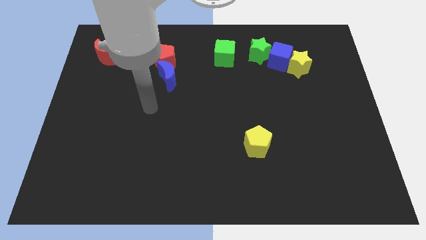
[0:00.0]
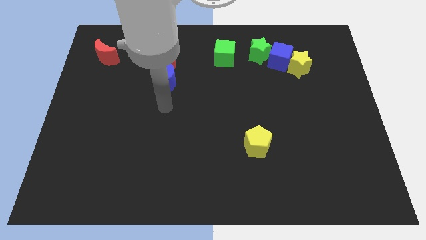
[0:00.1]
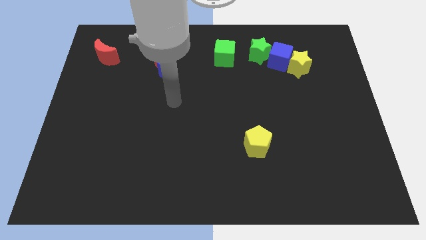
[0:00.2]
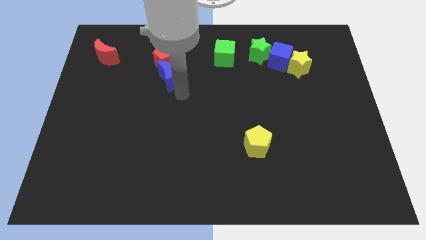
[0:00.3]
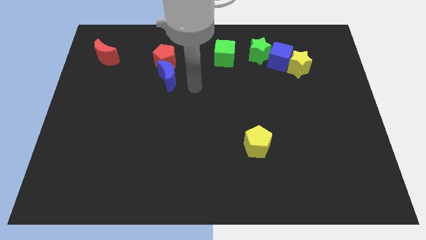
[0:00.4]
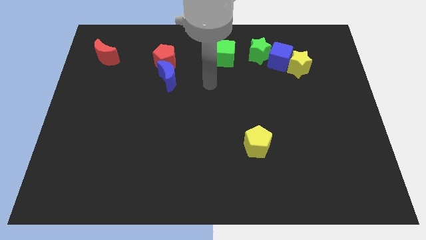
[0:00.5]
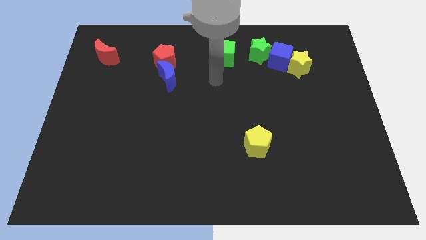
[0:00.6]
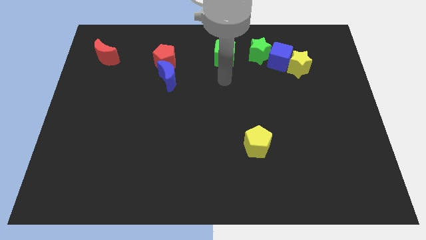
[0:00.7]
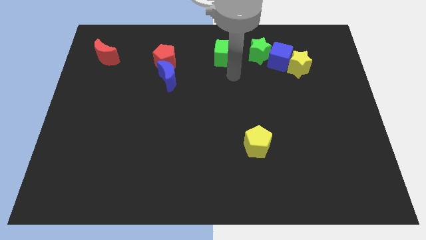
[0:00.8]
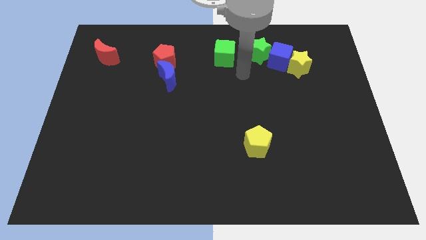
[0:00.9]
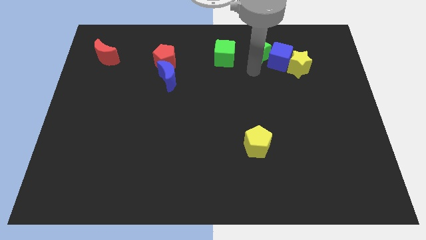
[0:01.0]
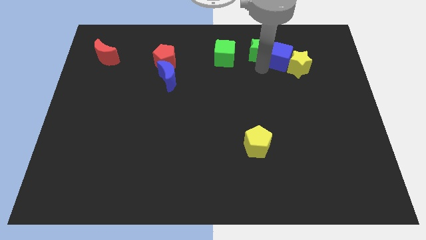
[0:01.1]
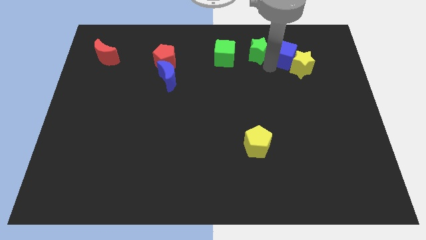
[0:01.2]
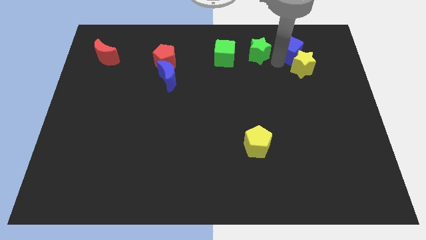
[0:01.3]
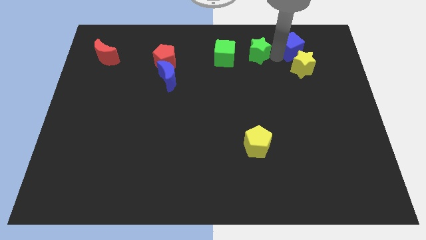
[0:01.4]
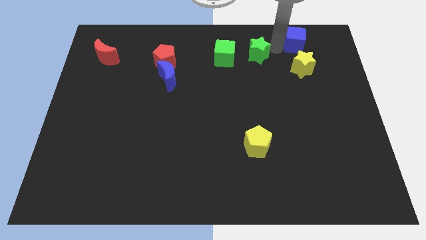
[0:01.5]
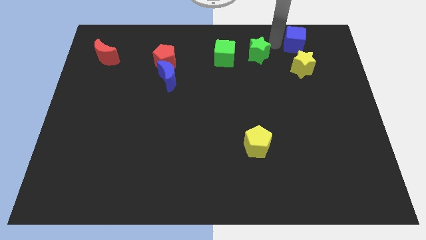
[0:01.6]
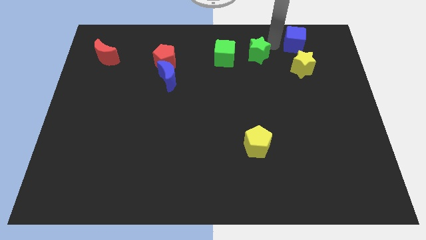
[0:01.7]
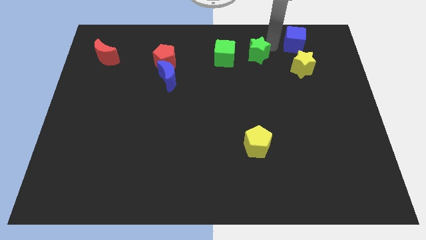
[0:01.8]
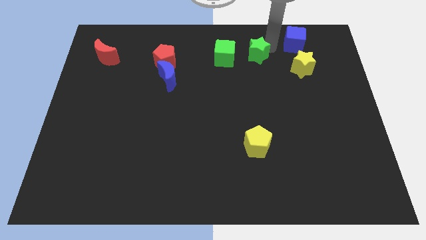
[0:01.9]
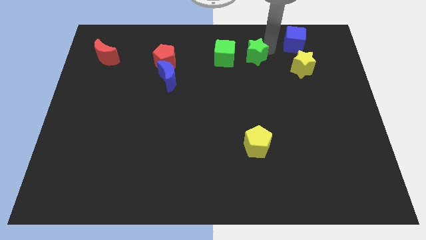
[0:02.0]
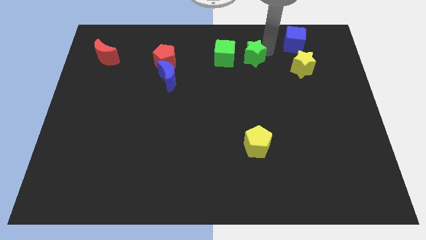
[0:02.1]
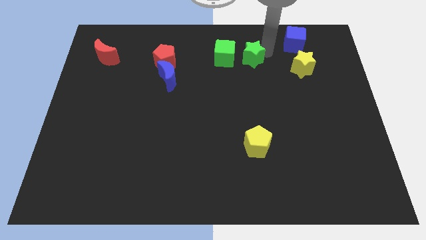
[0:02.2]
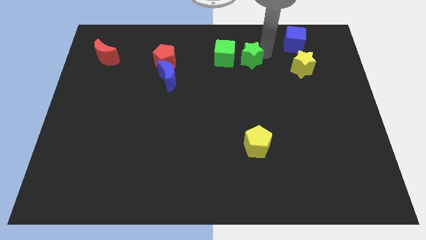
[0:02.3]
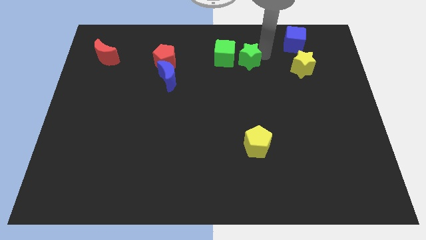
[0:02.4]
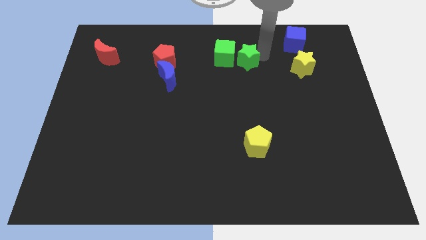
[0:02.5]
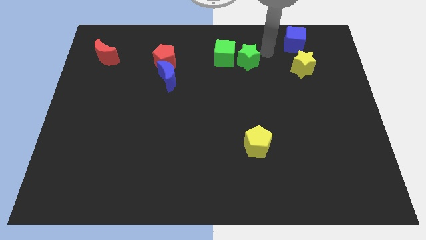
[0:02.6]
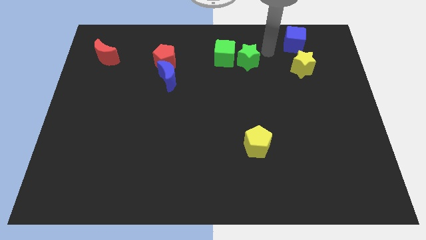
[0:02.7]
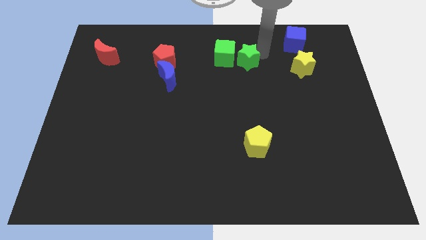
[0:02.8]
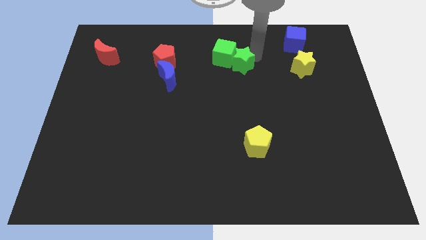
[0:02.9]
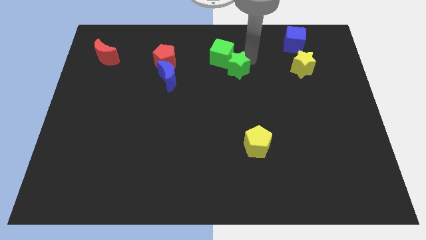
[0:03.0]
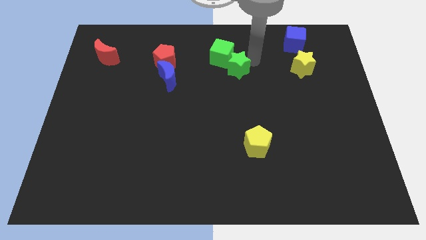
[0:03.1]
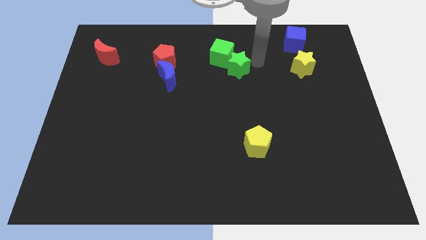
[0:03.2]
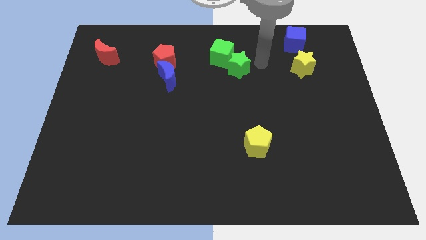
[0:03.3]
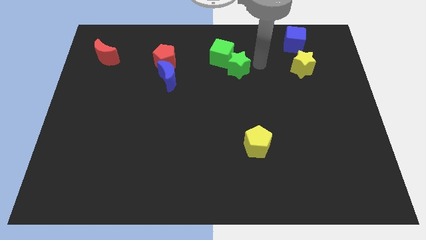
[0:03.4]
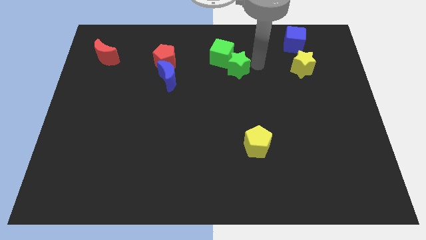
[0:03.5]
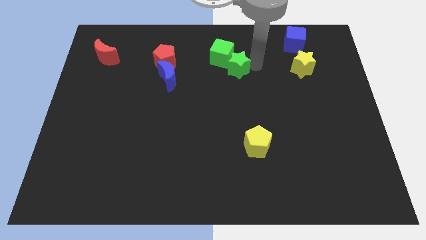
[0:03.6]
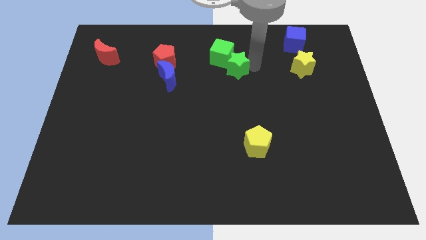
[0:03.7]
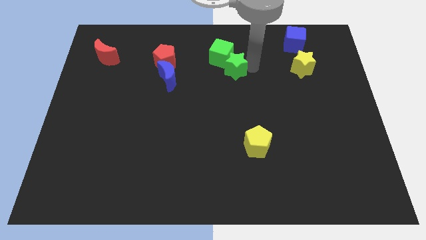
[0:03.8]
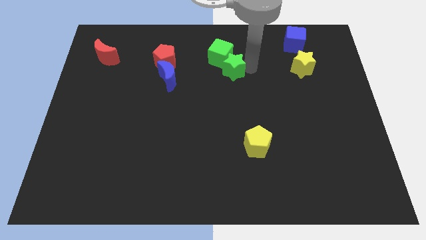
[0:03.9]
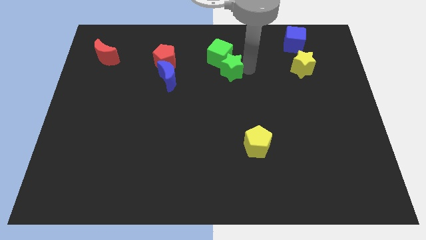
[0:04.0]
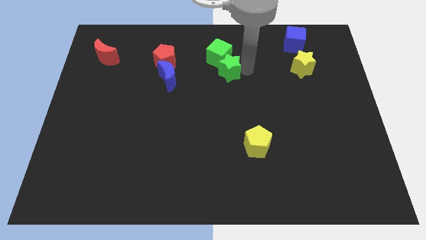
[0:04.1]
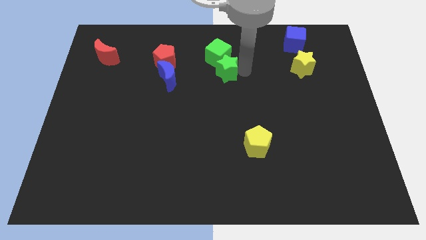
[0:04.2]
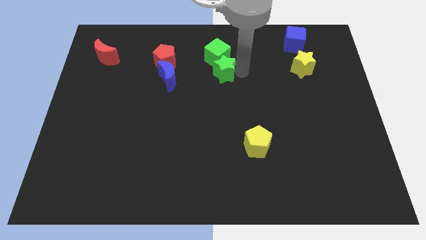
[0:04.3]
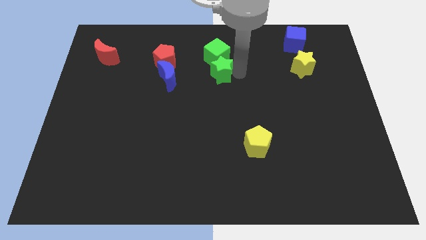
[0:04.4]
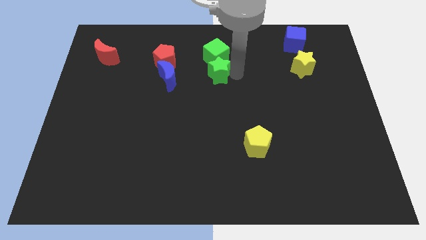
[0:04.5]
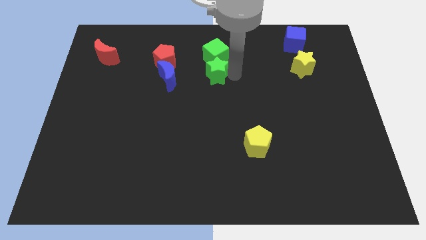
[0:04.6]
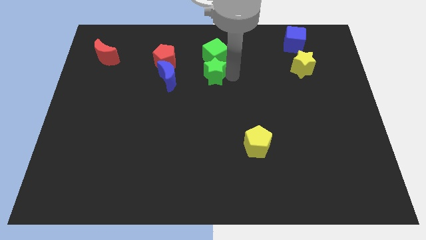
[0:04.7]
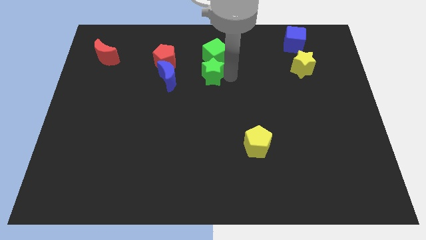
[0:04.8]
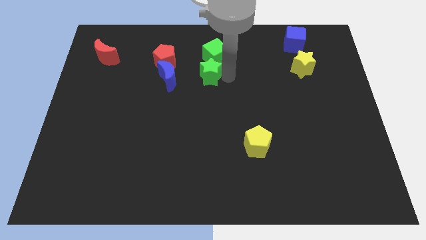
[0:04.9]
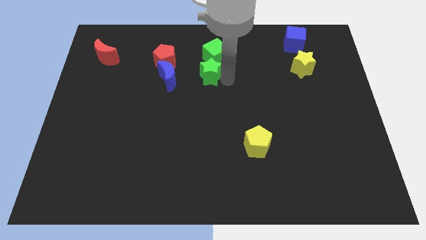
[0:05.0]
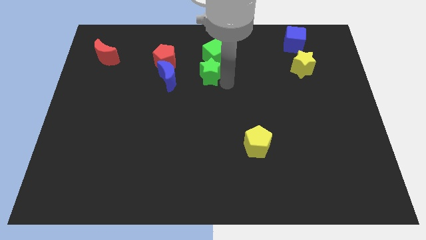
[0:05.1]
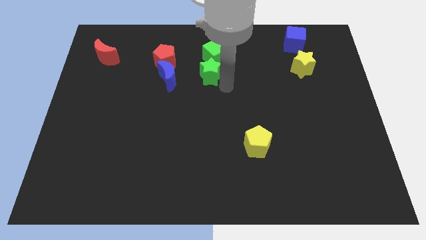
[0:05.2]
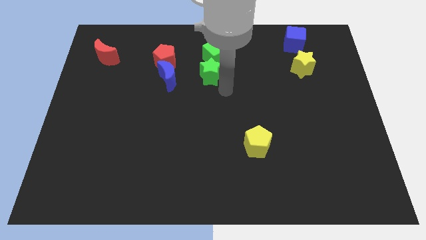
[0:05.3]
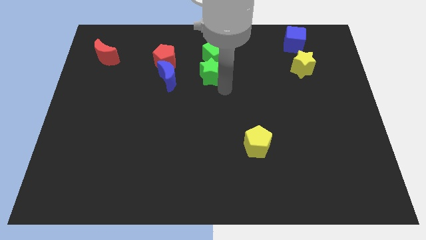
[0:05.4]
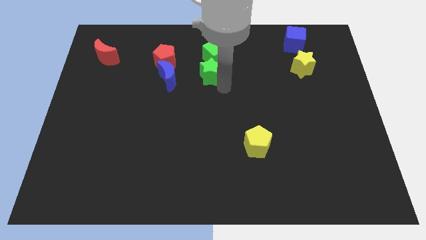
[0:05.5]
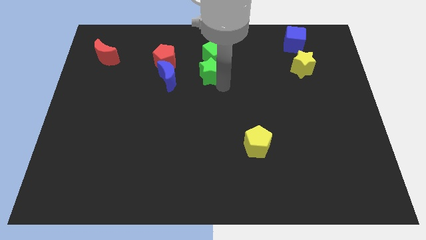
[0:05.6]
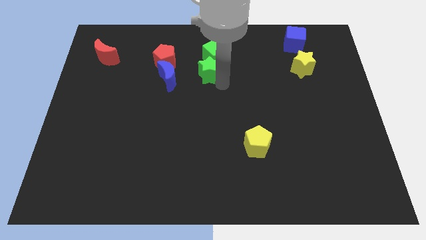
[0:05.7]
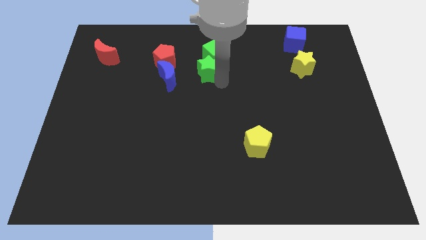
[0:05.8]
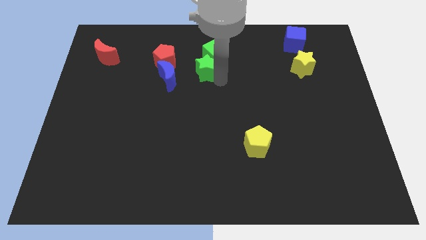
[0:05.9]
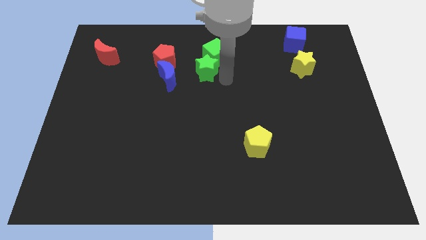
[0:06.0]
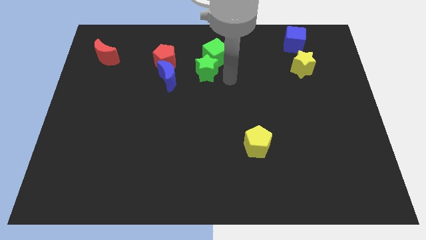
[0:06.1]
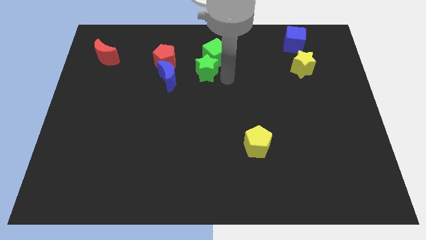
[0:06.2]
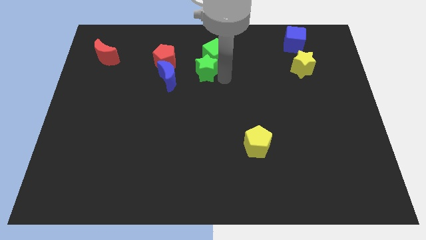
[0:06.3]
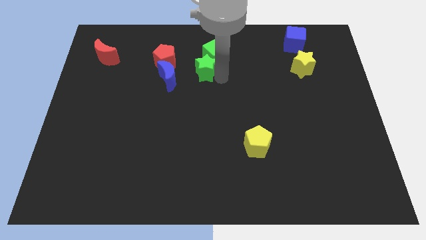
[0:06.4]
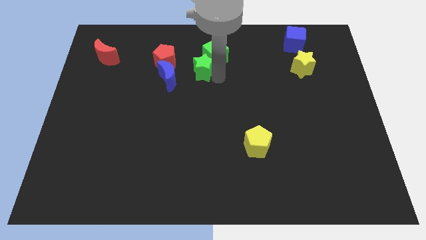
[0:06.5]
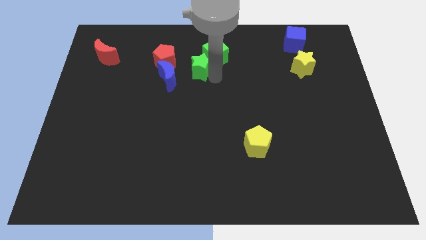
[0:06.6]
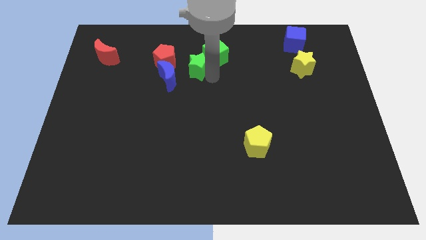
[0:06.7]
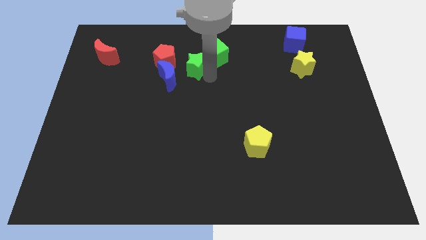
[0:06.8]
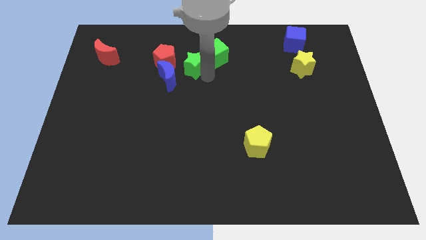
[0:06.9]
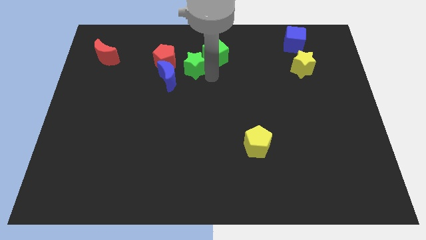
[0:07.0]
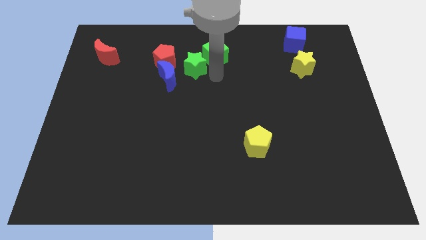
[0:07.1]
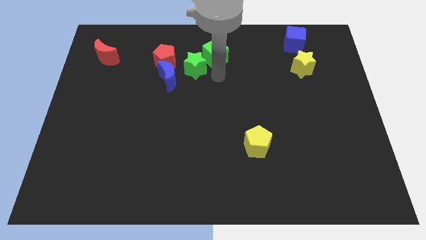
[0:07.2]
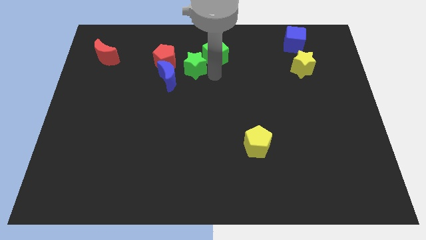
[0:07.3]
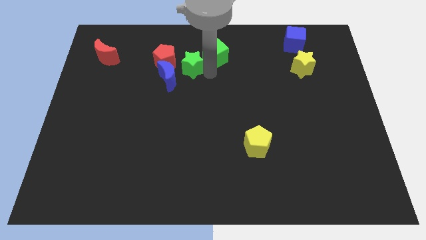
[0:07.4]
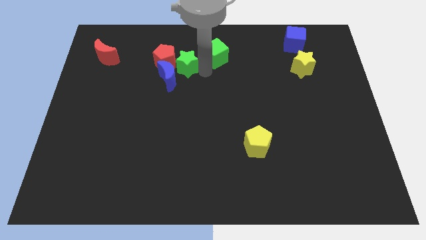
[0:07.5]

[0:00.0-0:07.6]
push the green star close to the red pentagon
